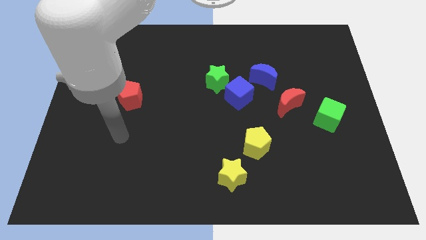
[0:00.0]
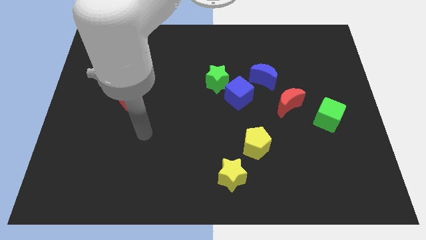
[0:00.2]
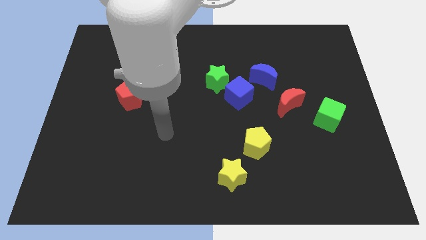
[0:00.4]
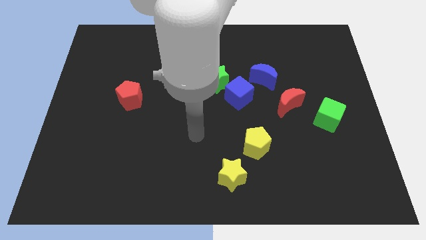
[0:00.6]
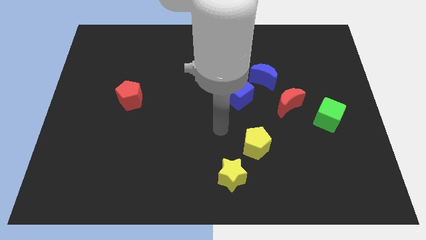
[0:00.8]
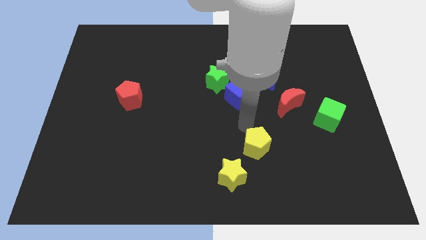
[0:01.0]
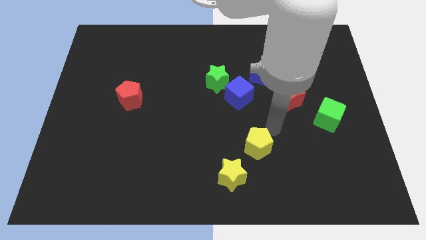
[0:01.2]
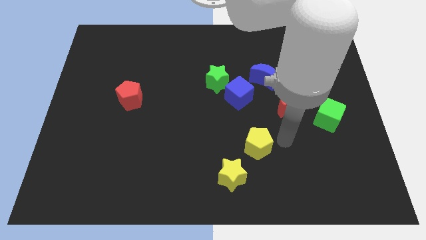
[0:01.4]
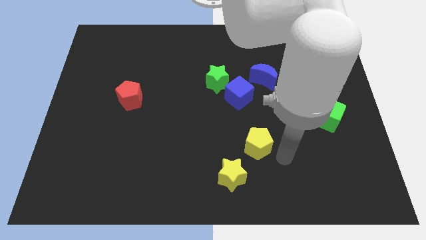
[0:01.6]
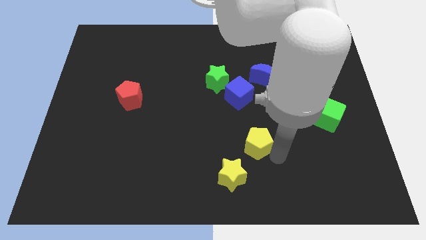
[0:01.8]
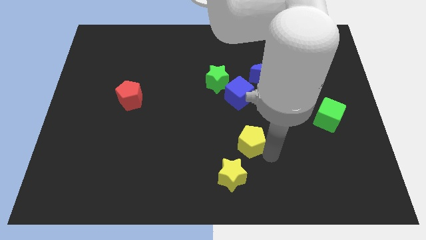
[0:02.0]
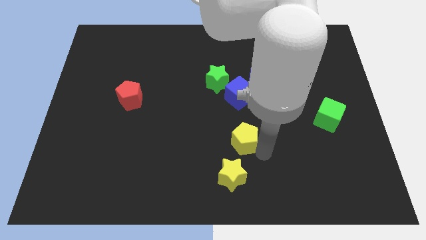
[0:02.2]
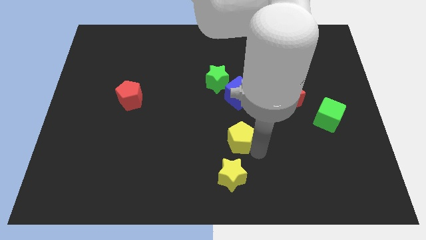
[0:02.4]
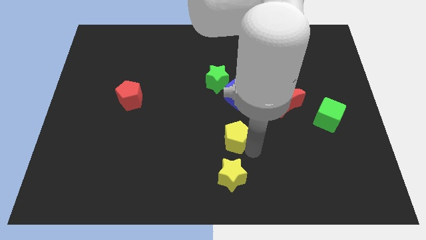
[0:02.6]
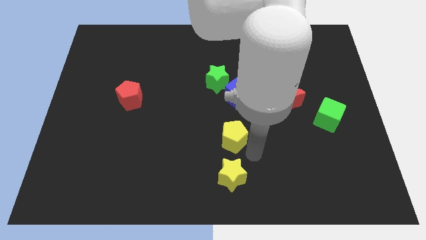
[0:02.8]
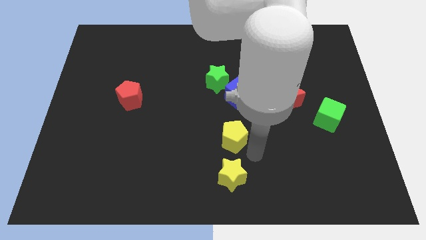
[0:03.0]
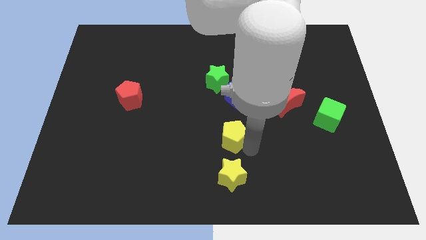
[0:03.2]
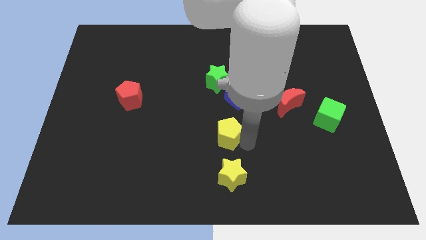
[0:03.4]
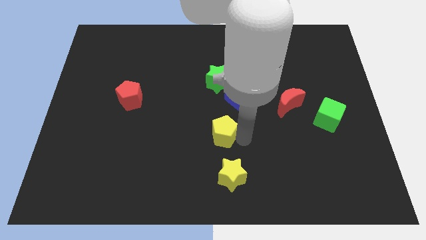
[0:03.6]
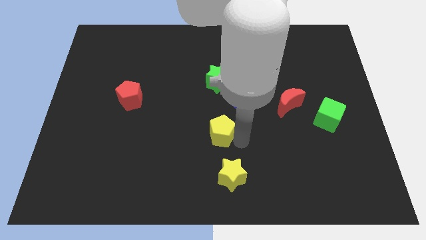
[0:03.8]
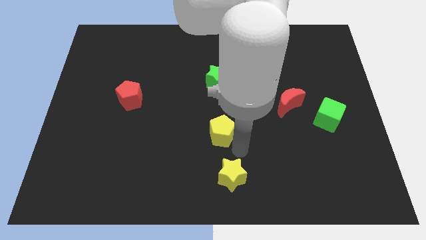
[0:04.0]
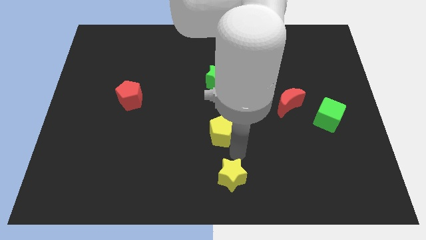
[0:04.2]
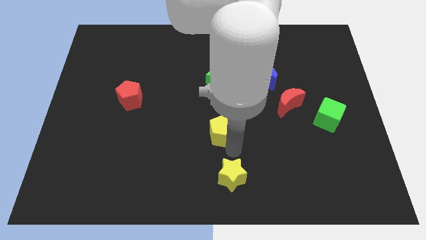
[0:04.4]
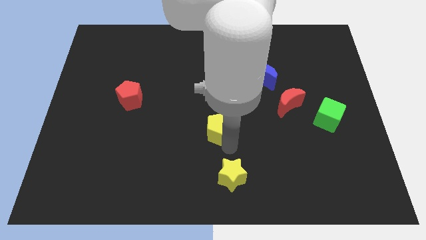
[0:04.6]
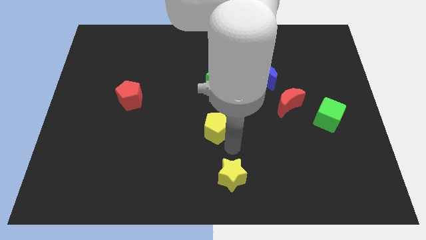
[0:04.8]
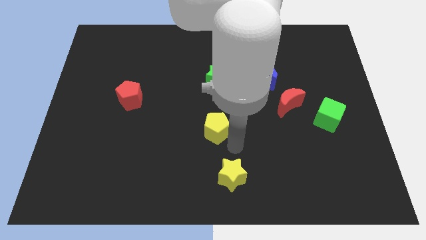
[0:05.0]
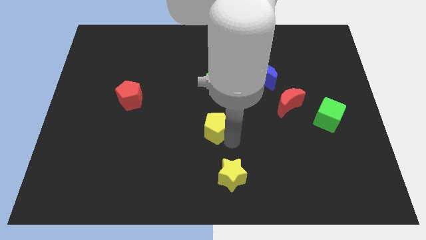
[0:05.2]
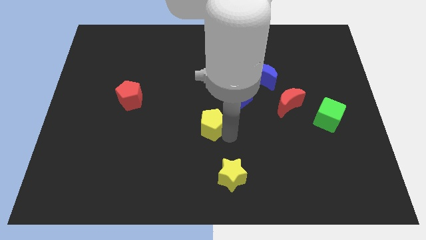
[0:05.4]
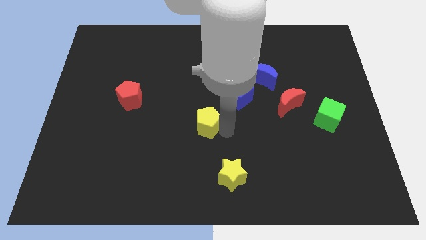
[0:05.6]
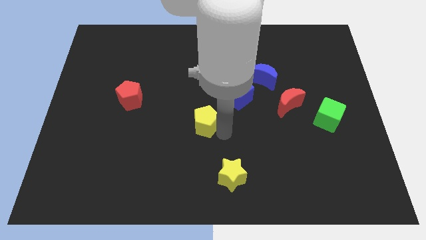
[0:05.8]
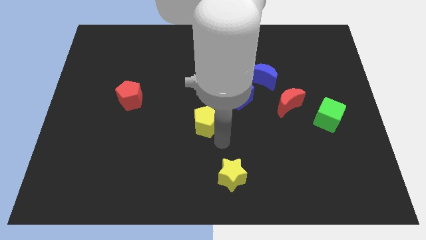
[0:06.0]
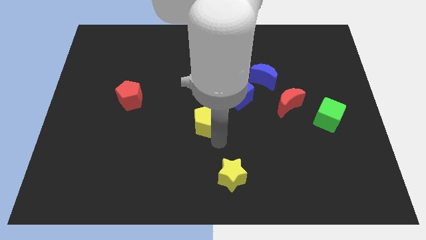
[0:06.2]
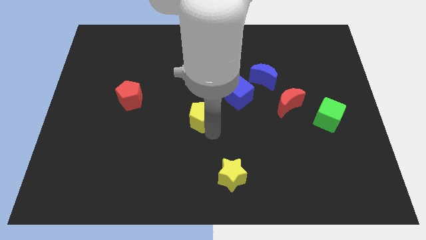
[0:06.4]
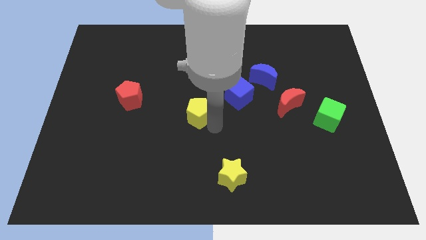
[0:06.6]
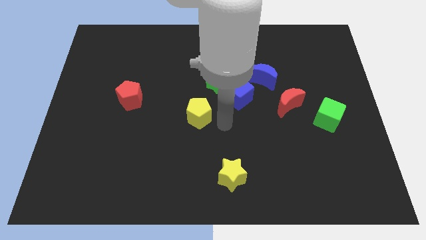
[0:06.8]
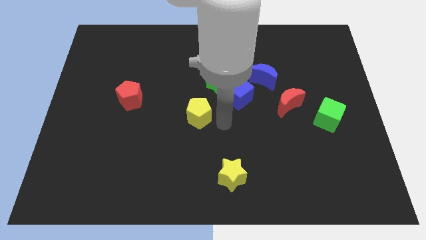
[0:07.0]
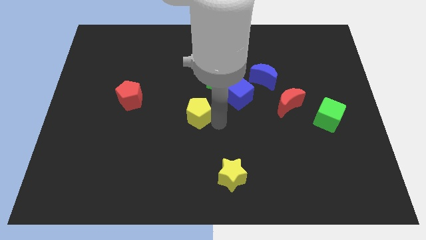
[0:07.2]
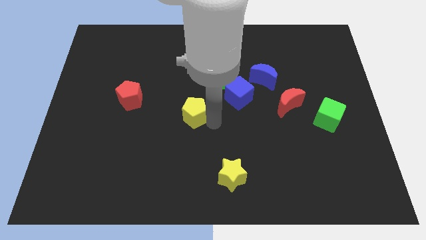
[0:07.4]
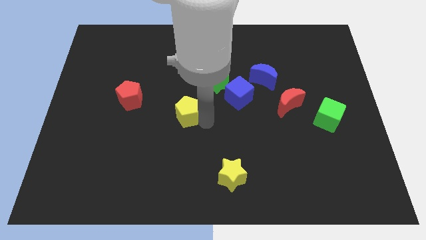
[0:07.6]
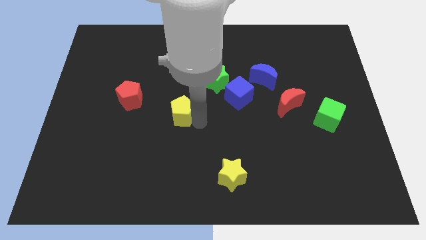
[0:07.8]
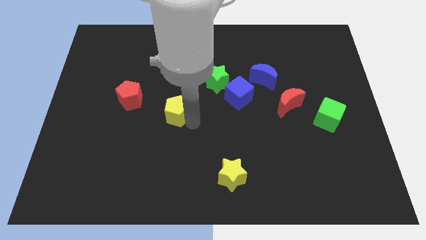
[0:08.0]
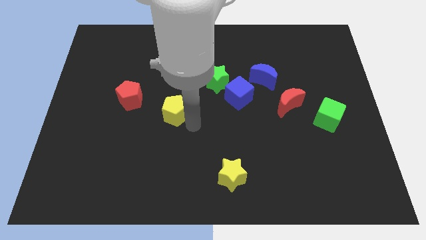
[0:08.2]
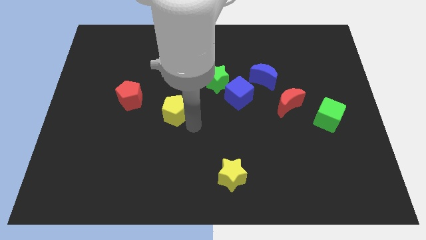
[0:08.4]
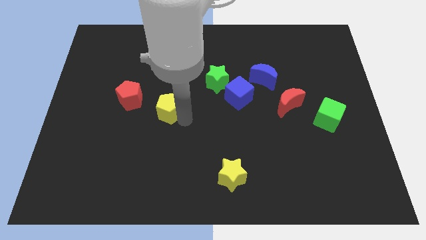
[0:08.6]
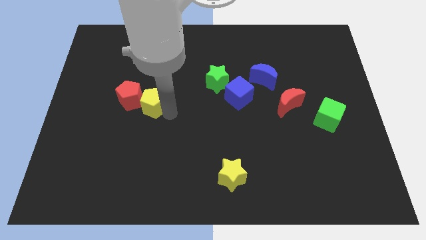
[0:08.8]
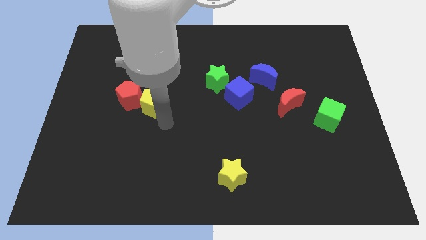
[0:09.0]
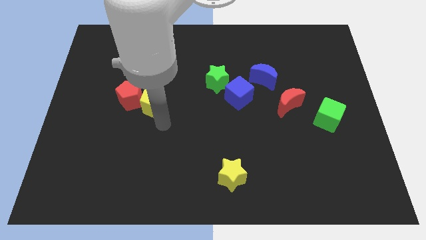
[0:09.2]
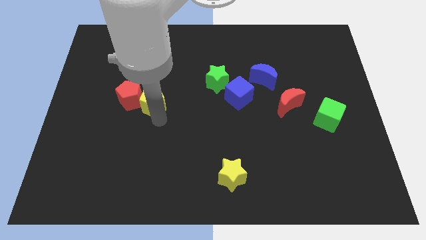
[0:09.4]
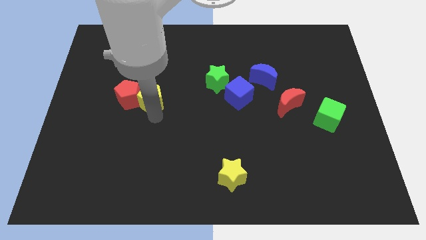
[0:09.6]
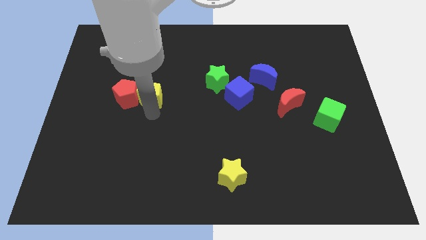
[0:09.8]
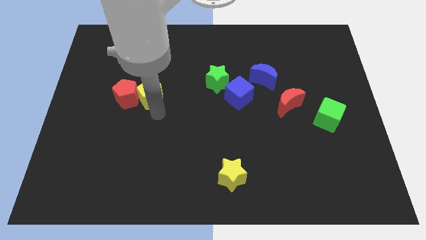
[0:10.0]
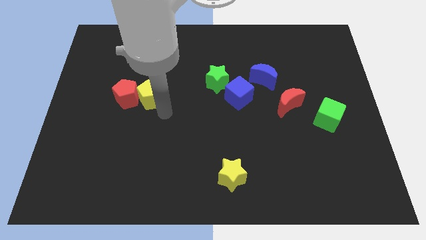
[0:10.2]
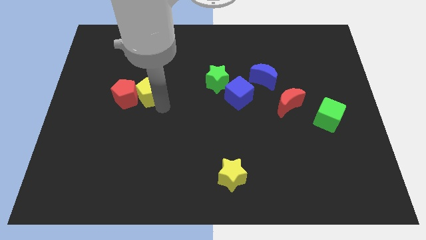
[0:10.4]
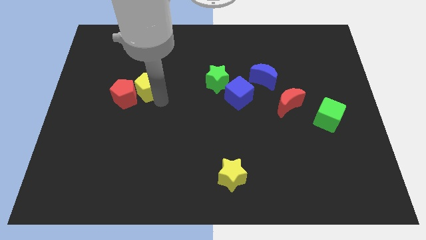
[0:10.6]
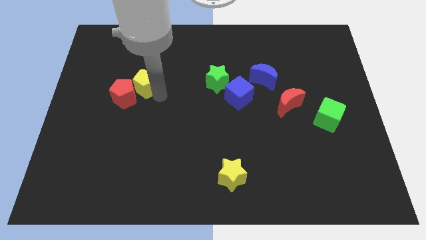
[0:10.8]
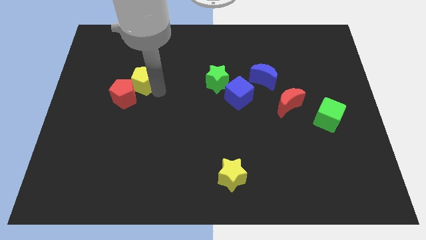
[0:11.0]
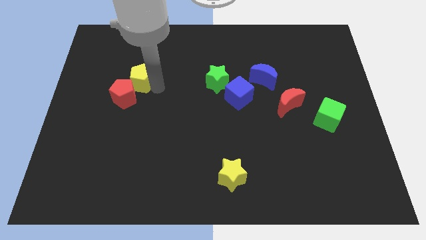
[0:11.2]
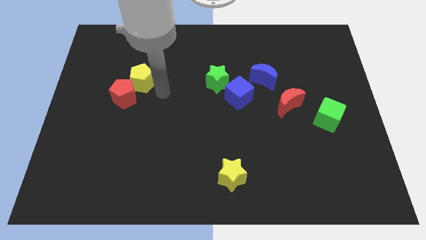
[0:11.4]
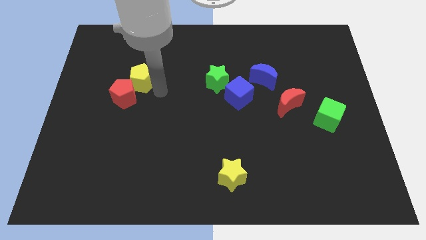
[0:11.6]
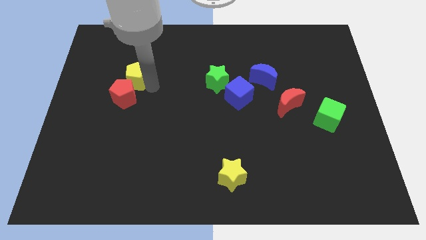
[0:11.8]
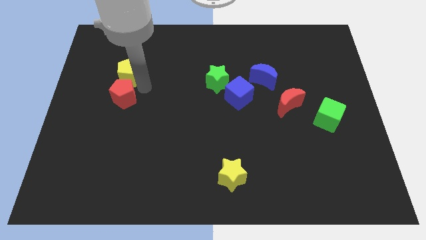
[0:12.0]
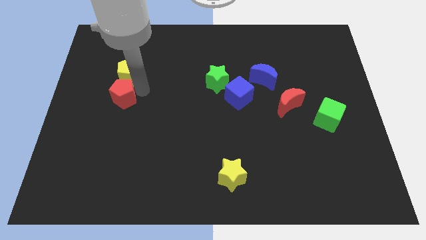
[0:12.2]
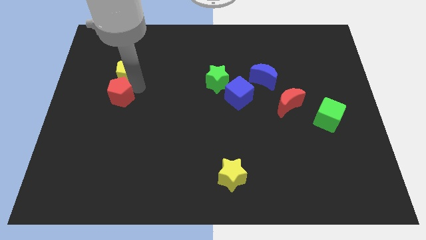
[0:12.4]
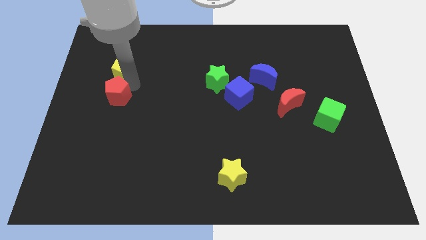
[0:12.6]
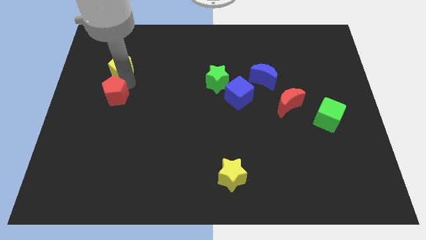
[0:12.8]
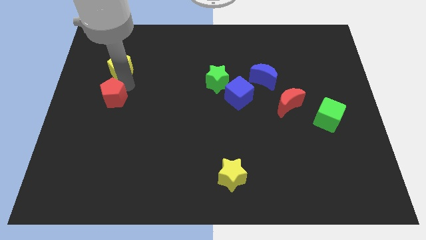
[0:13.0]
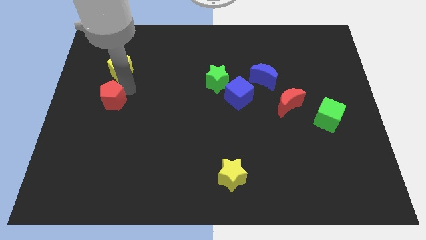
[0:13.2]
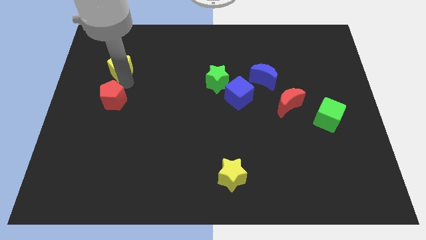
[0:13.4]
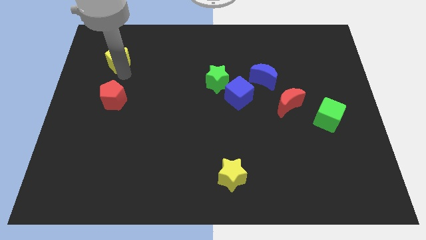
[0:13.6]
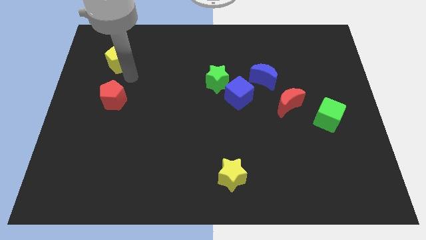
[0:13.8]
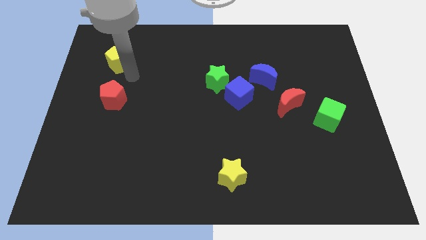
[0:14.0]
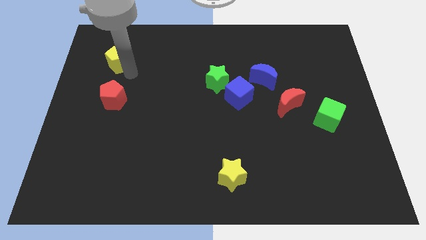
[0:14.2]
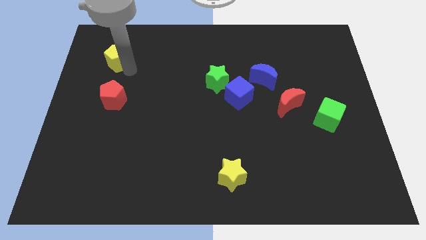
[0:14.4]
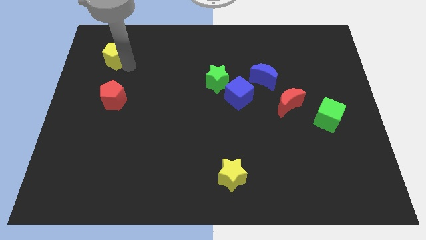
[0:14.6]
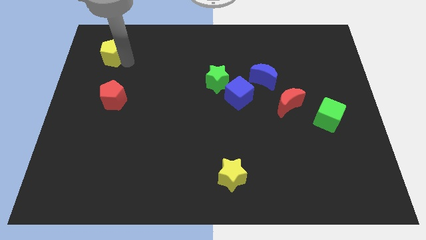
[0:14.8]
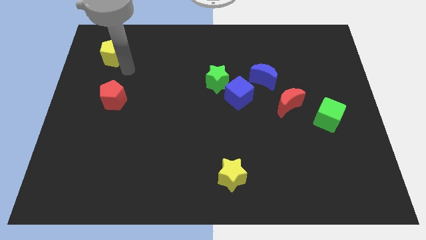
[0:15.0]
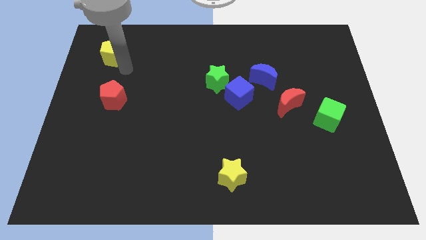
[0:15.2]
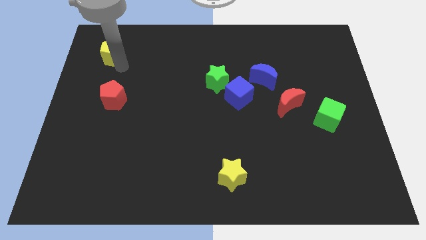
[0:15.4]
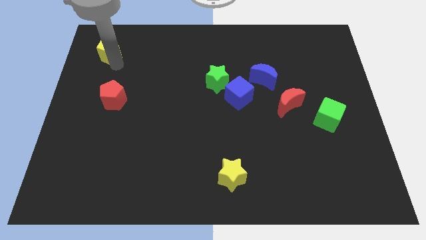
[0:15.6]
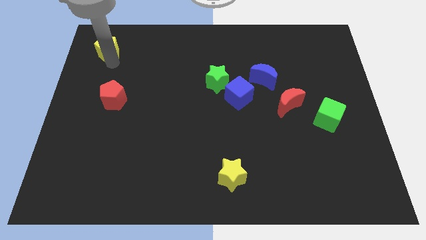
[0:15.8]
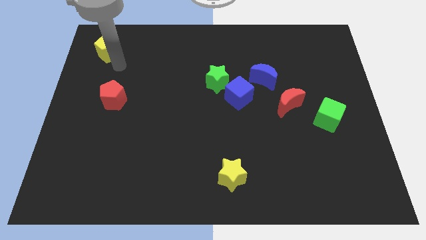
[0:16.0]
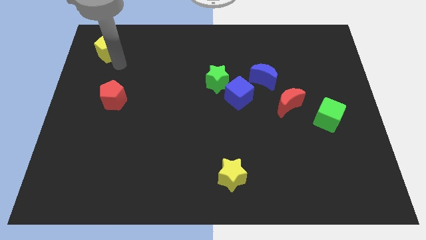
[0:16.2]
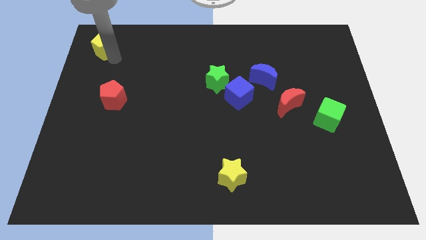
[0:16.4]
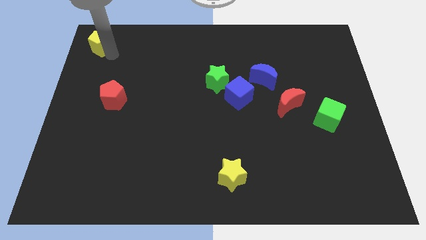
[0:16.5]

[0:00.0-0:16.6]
move the yellow pentagon to the top left corner
